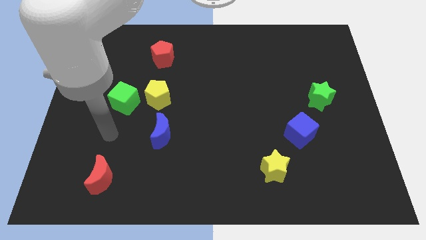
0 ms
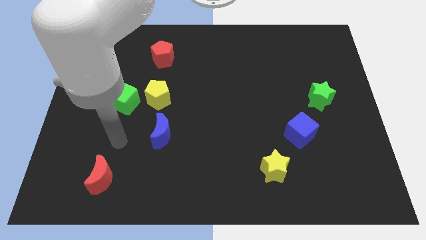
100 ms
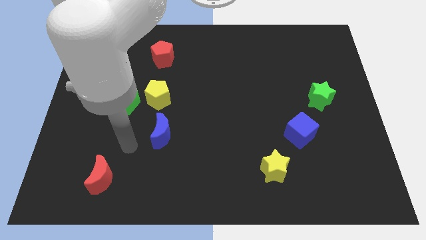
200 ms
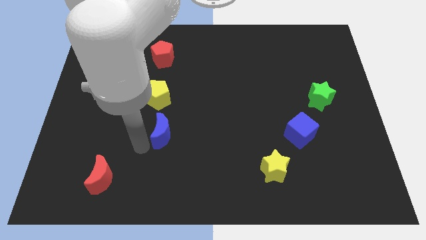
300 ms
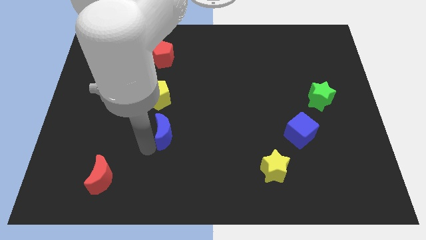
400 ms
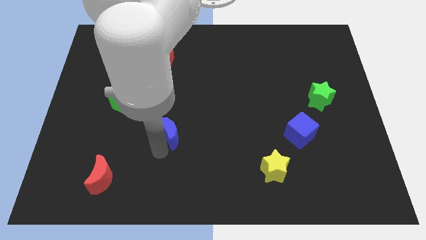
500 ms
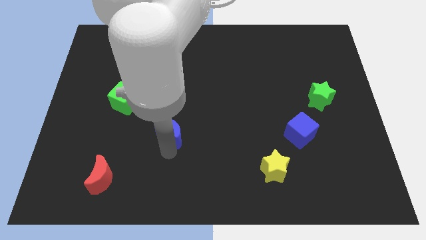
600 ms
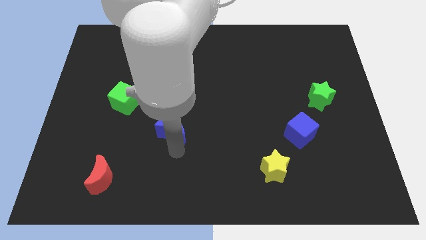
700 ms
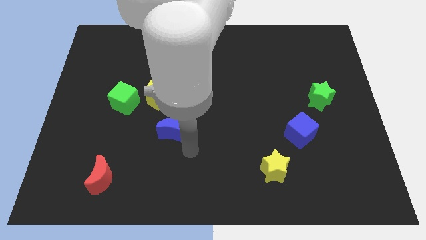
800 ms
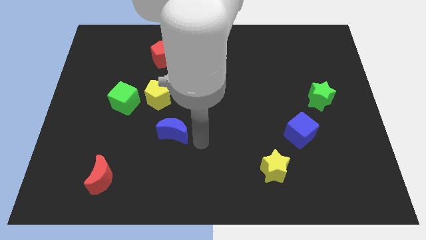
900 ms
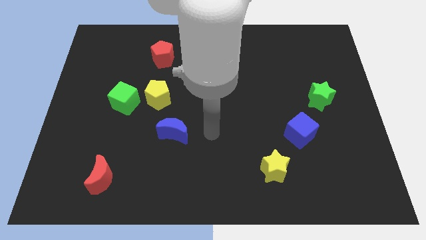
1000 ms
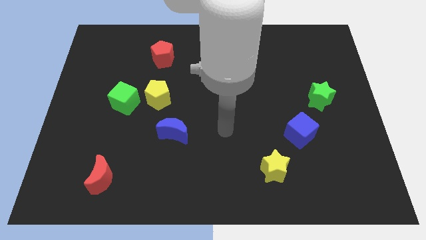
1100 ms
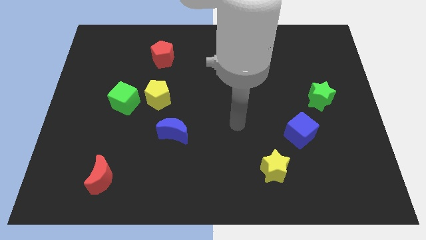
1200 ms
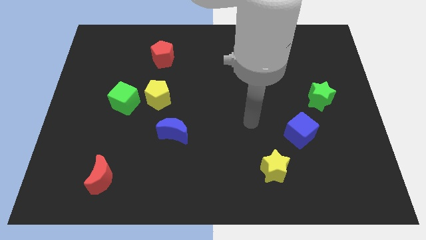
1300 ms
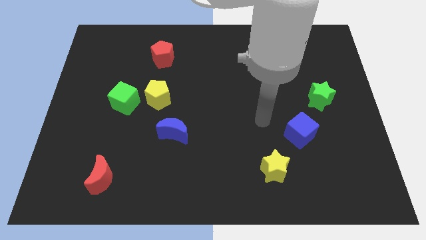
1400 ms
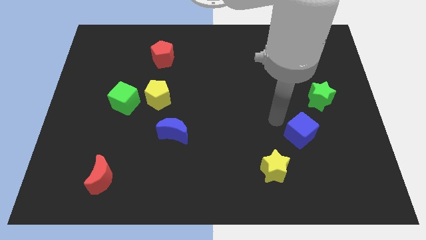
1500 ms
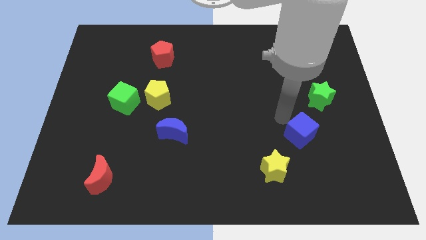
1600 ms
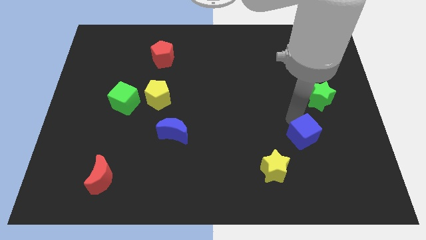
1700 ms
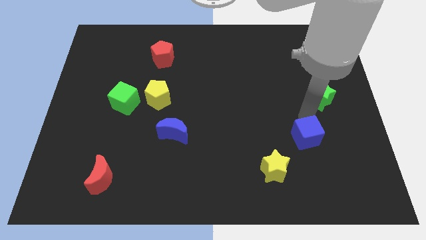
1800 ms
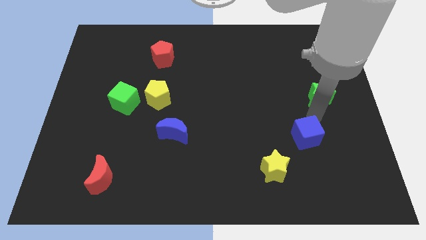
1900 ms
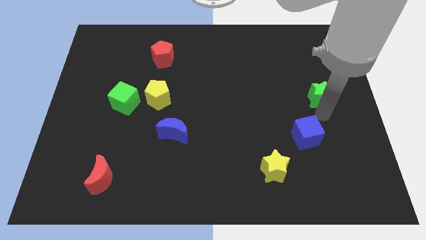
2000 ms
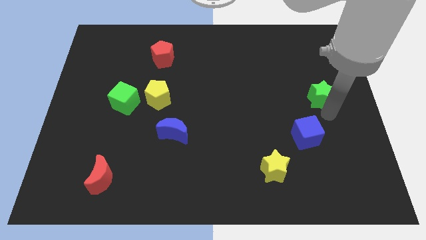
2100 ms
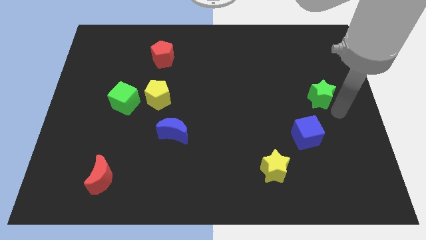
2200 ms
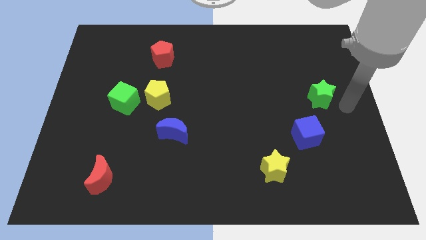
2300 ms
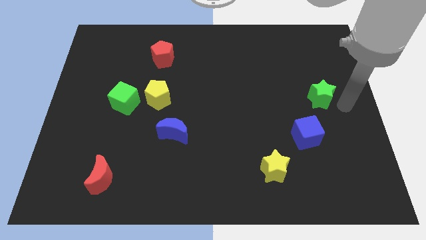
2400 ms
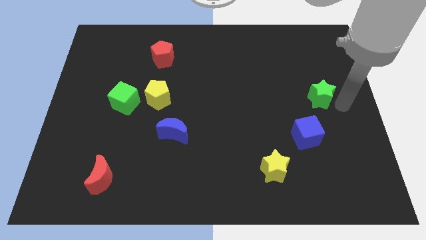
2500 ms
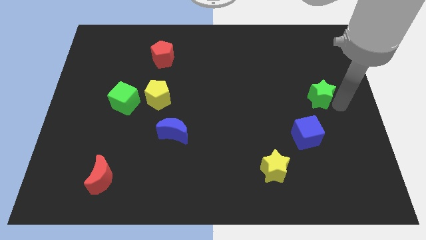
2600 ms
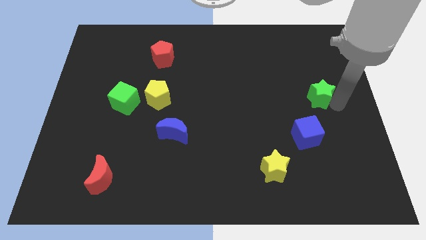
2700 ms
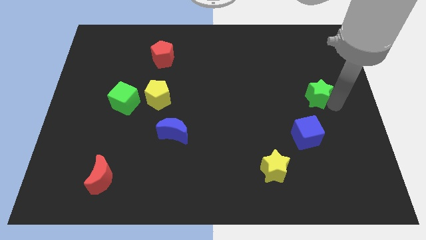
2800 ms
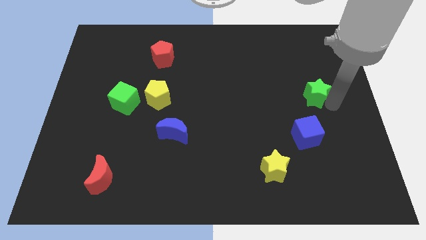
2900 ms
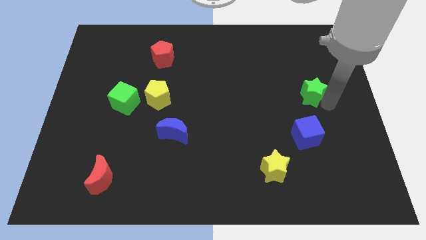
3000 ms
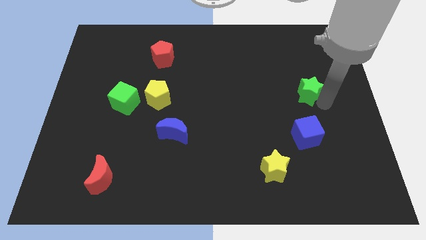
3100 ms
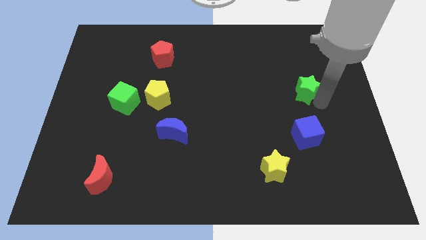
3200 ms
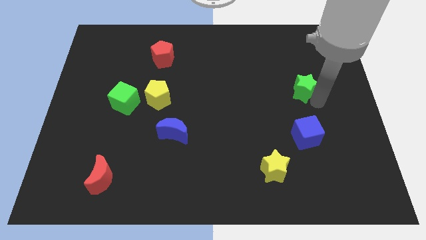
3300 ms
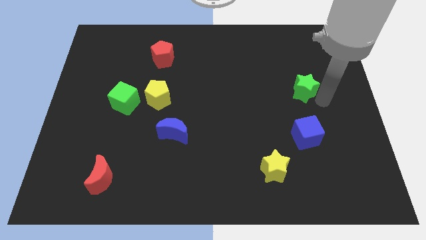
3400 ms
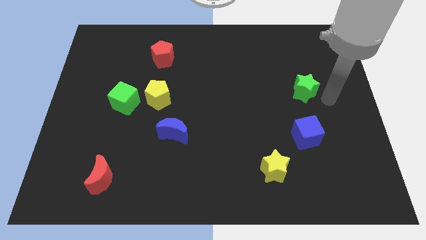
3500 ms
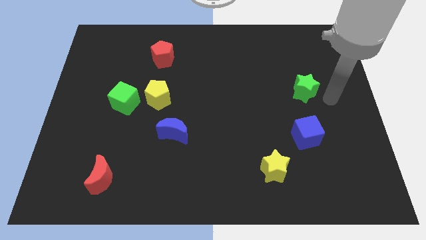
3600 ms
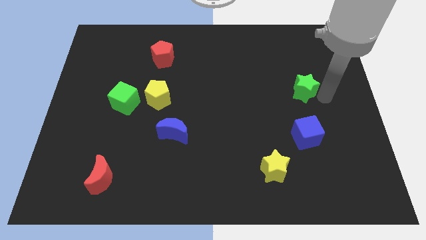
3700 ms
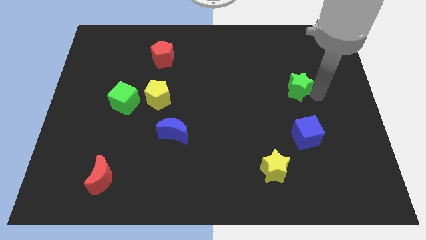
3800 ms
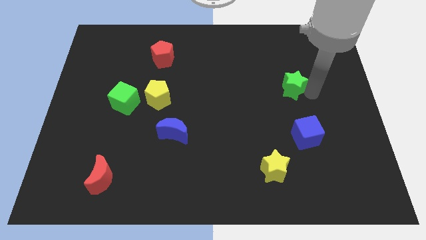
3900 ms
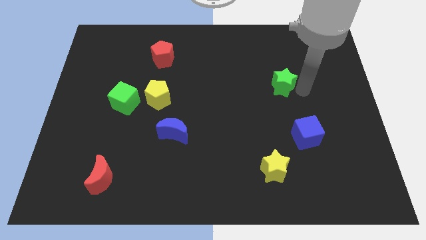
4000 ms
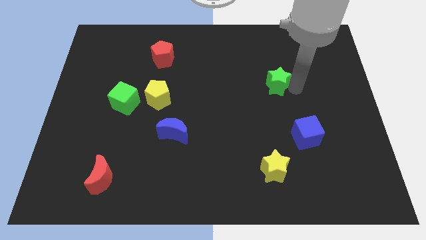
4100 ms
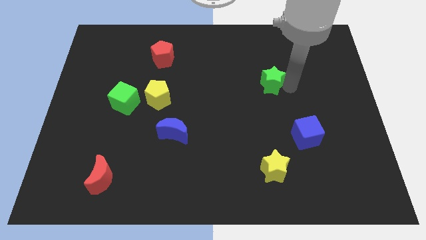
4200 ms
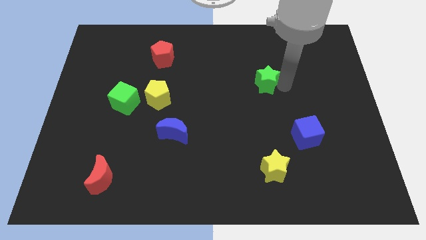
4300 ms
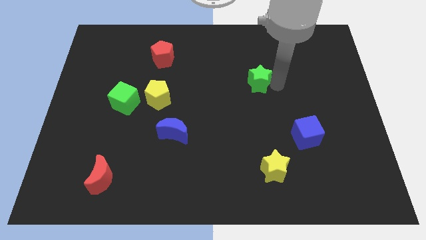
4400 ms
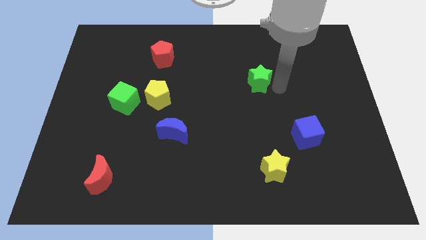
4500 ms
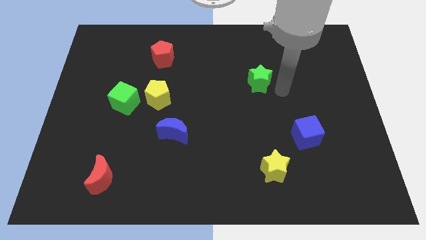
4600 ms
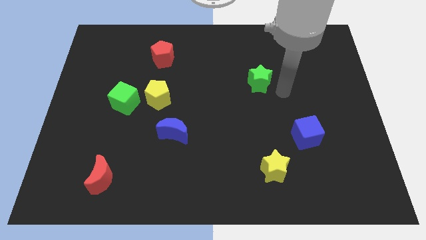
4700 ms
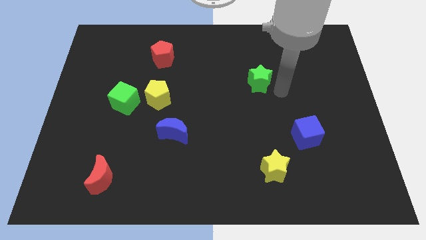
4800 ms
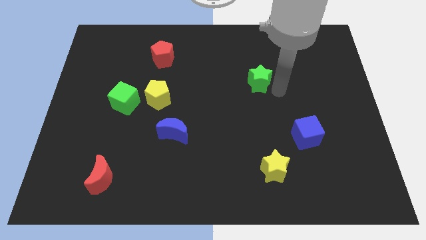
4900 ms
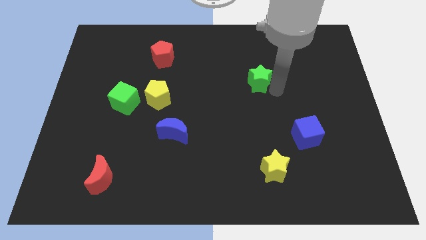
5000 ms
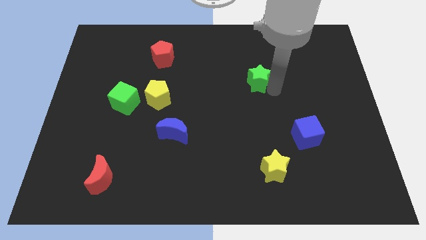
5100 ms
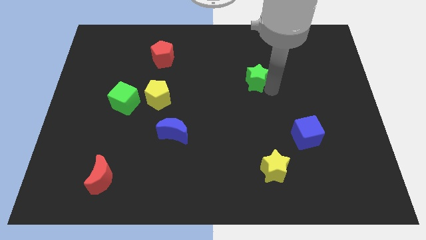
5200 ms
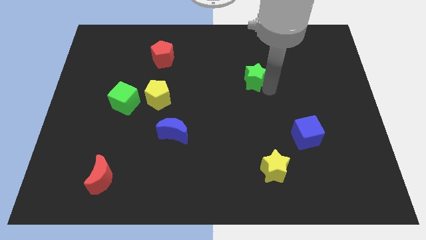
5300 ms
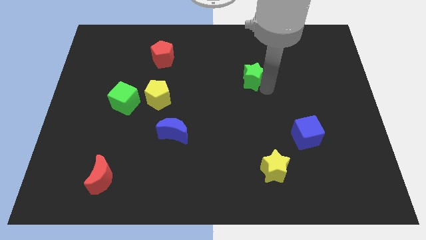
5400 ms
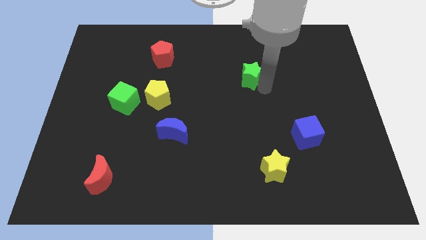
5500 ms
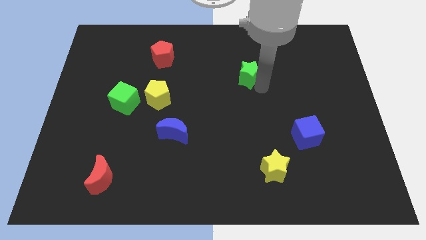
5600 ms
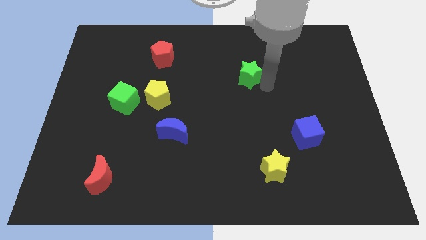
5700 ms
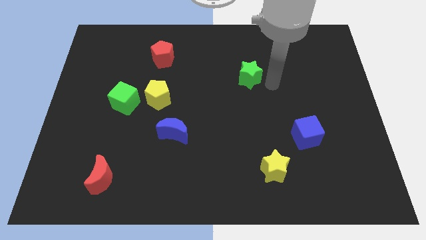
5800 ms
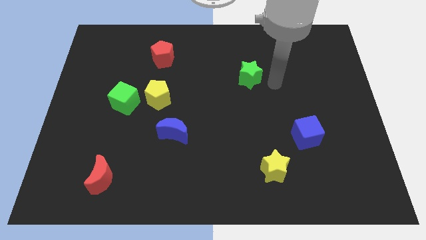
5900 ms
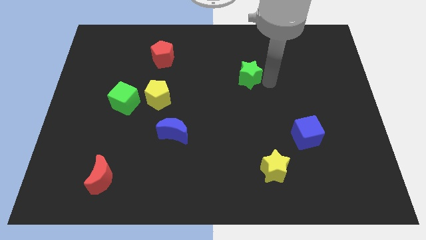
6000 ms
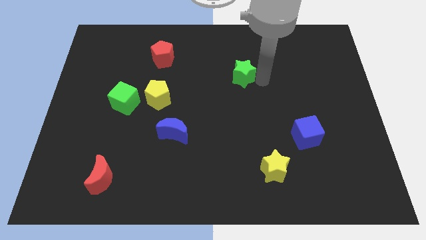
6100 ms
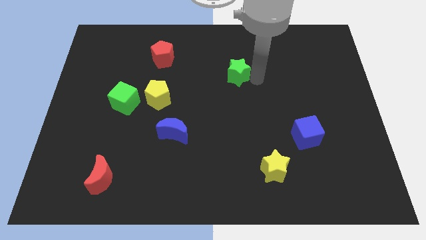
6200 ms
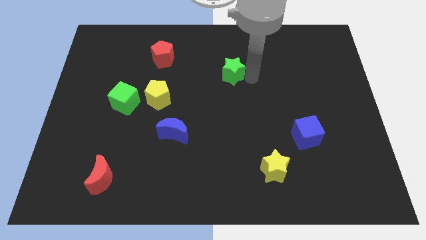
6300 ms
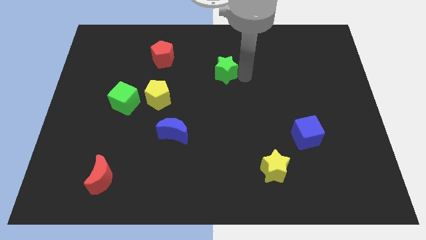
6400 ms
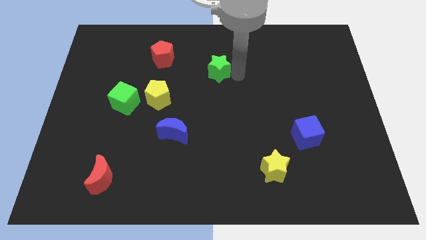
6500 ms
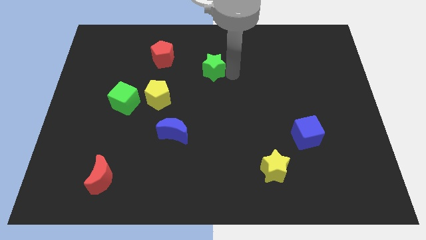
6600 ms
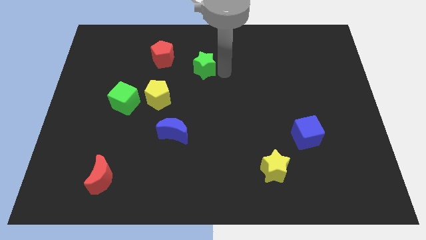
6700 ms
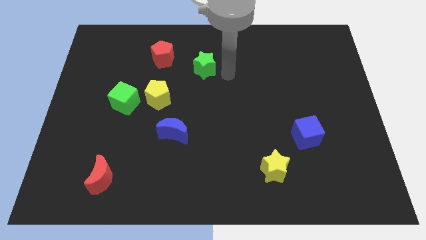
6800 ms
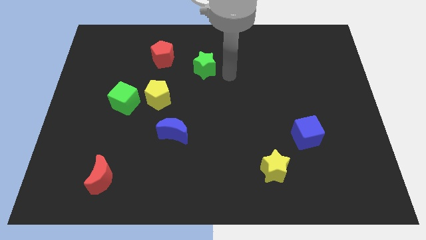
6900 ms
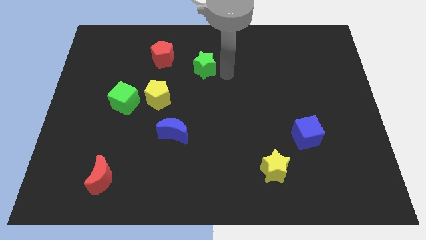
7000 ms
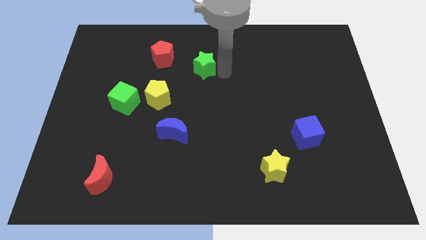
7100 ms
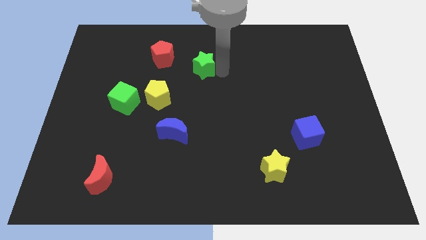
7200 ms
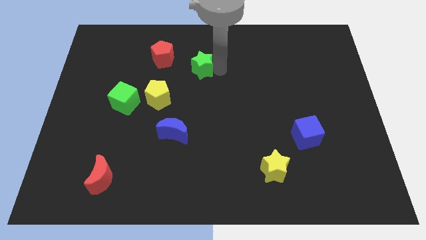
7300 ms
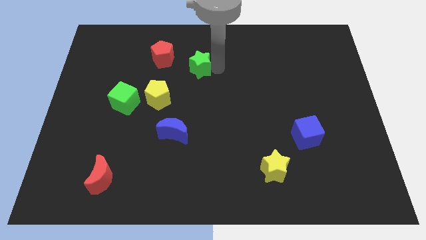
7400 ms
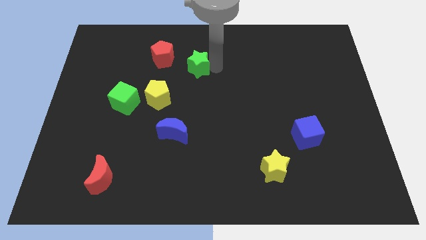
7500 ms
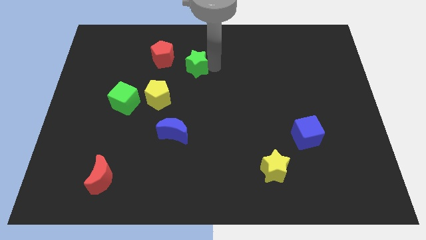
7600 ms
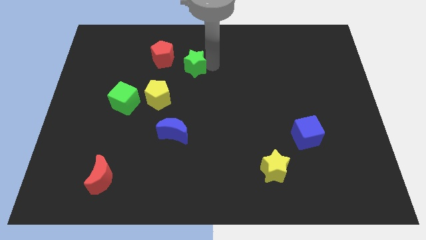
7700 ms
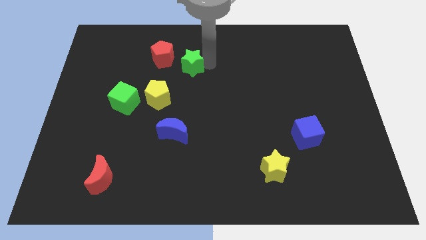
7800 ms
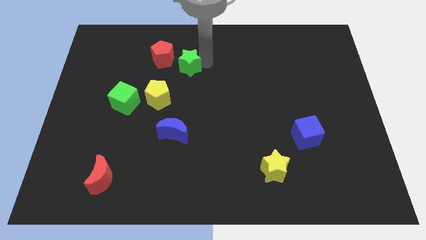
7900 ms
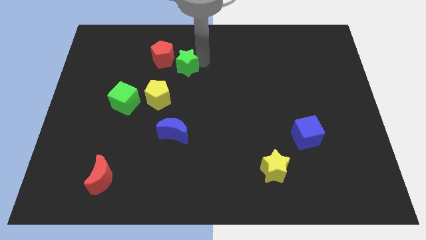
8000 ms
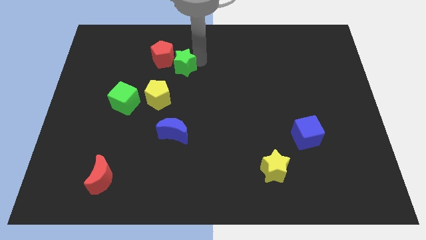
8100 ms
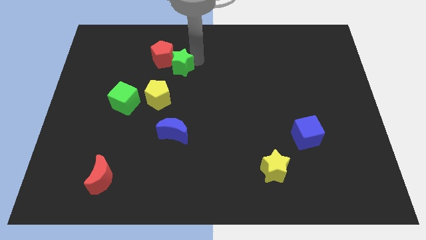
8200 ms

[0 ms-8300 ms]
push the green star close to the red pentagon
